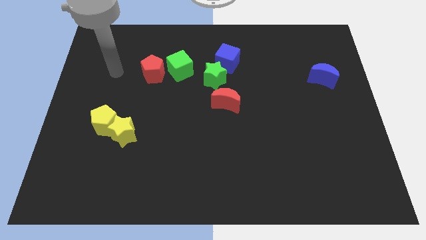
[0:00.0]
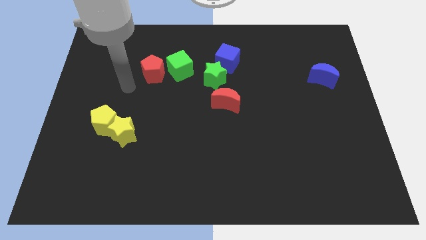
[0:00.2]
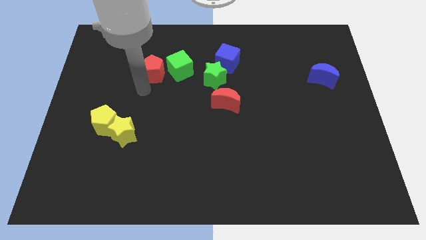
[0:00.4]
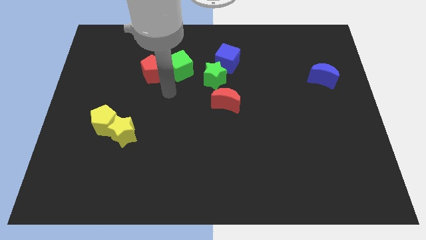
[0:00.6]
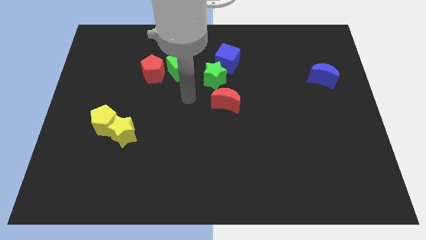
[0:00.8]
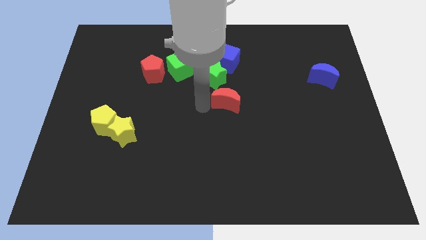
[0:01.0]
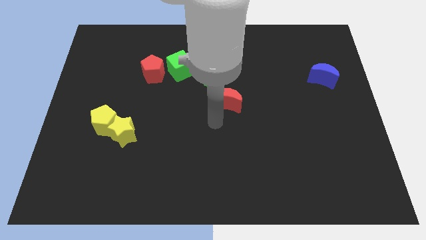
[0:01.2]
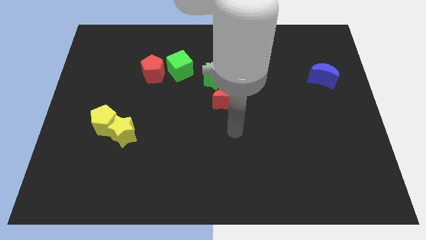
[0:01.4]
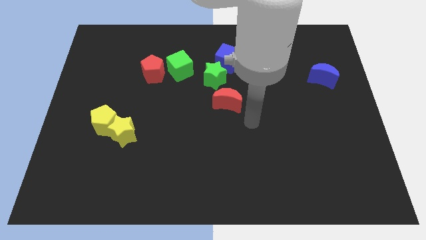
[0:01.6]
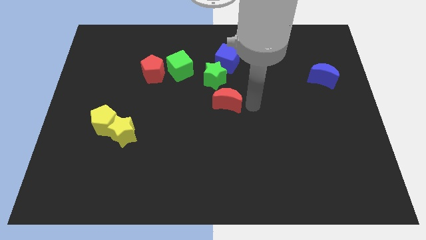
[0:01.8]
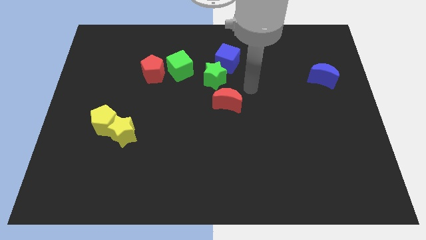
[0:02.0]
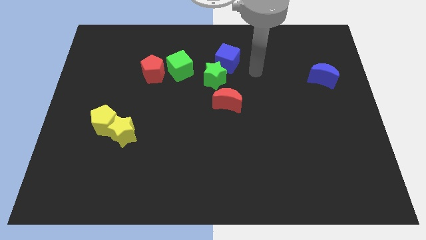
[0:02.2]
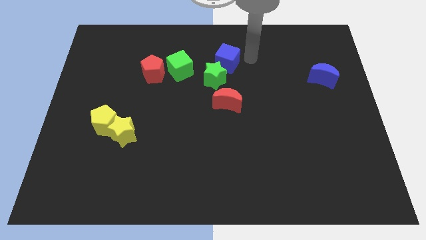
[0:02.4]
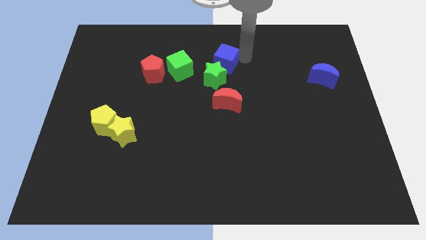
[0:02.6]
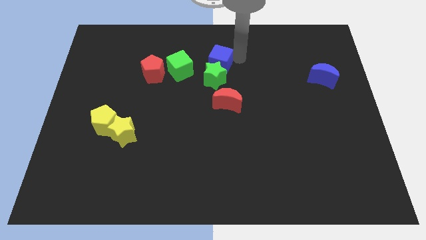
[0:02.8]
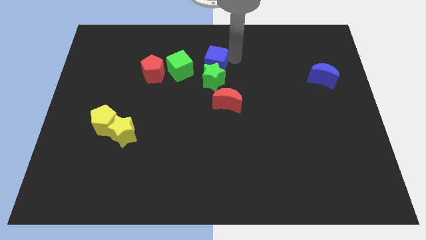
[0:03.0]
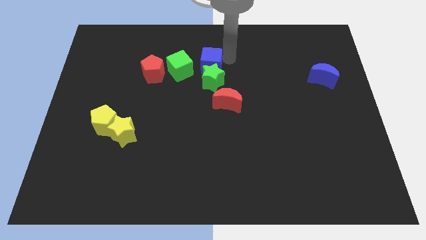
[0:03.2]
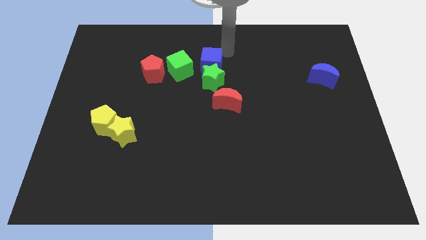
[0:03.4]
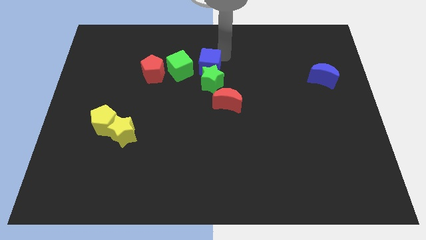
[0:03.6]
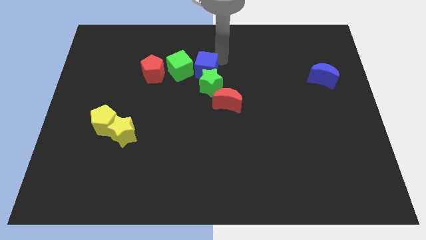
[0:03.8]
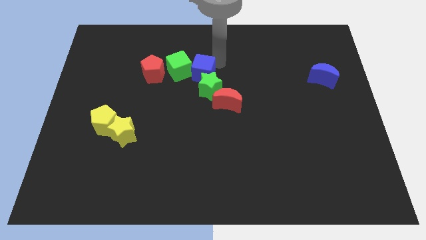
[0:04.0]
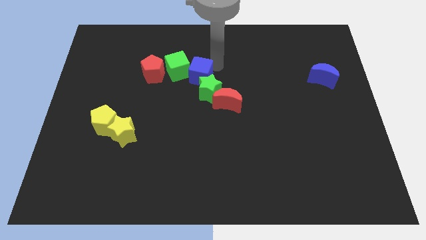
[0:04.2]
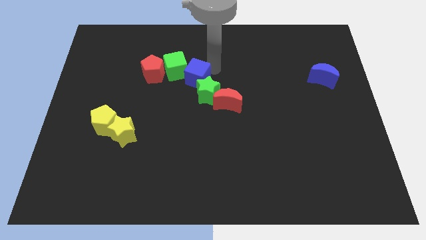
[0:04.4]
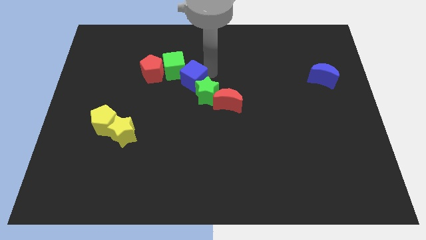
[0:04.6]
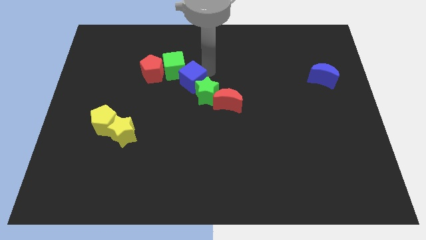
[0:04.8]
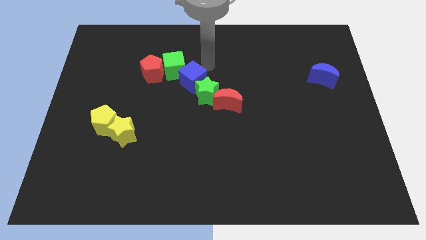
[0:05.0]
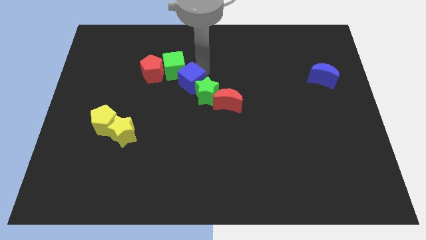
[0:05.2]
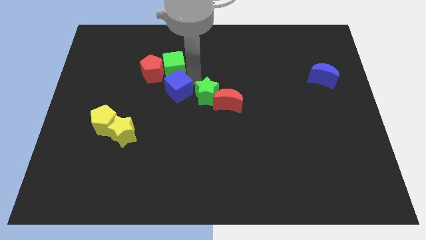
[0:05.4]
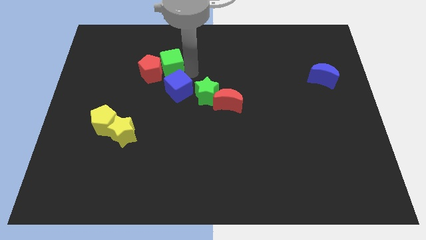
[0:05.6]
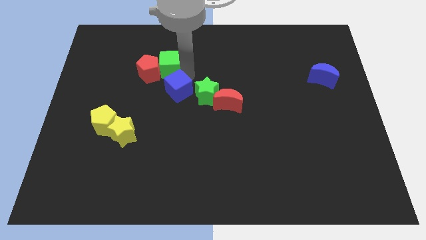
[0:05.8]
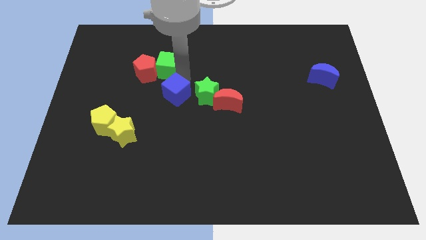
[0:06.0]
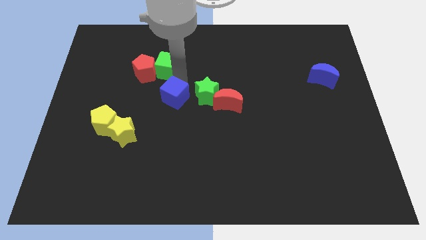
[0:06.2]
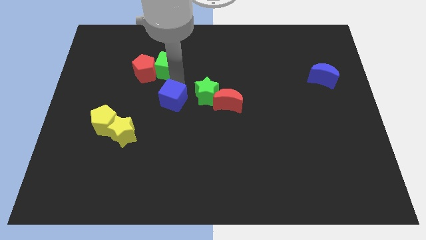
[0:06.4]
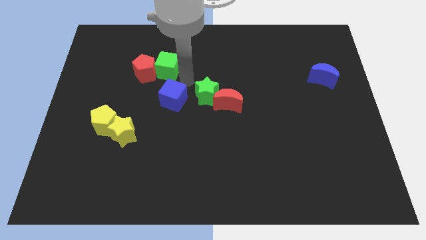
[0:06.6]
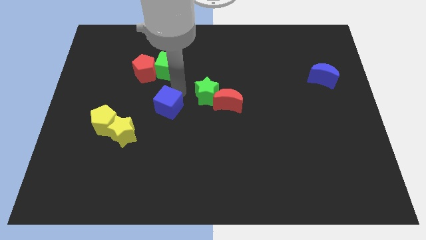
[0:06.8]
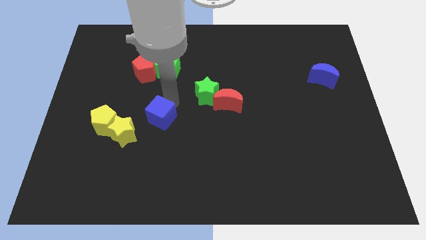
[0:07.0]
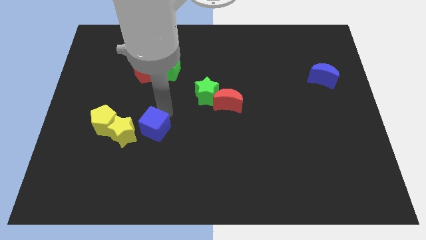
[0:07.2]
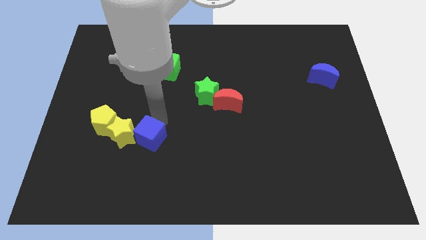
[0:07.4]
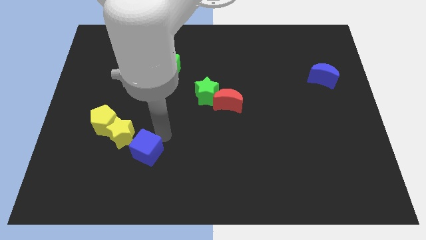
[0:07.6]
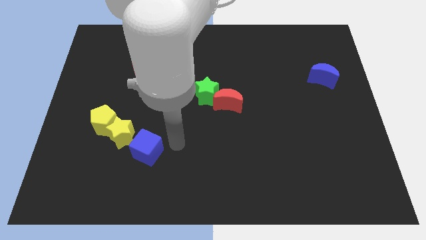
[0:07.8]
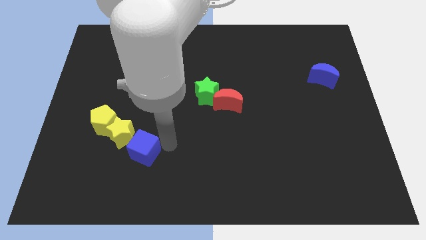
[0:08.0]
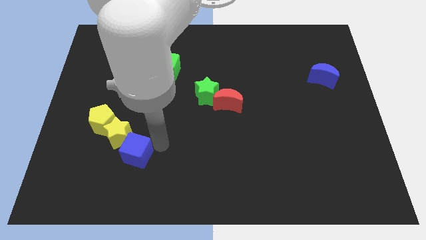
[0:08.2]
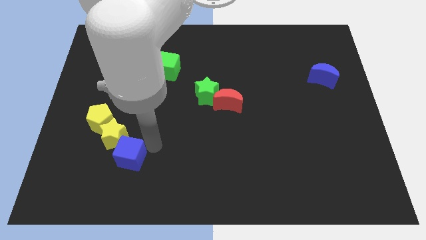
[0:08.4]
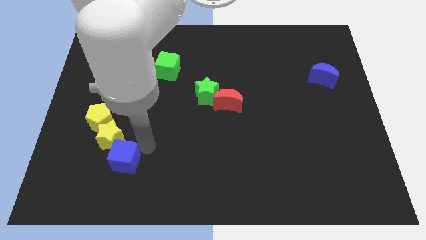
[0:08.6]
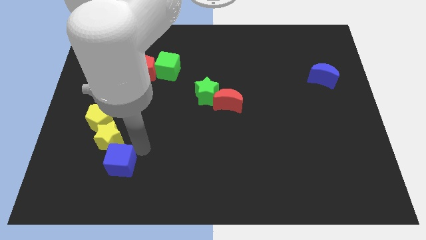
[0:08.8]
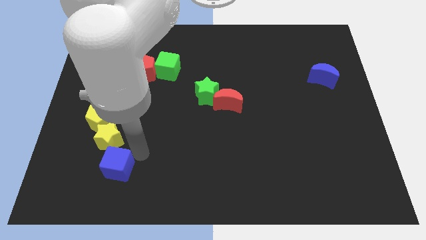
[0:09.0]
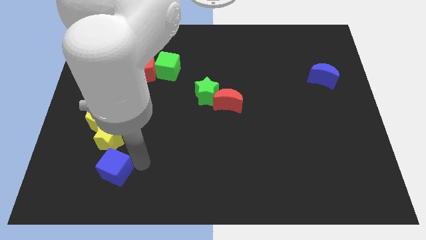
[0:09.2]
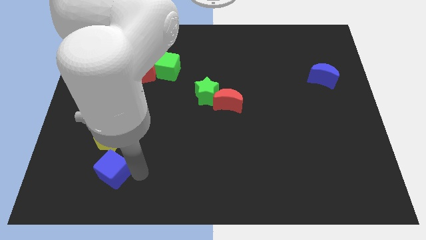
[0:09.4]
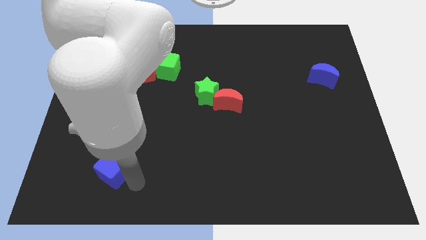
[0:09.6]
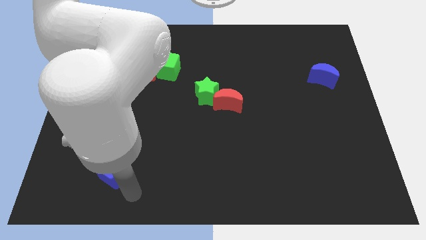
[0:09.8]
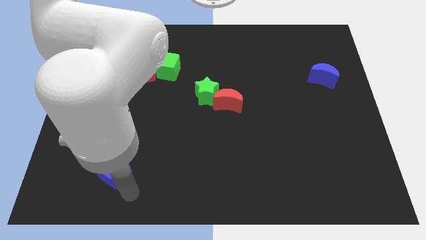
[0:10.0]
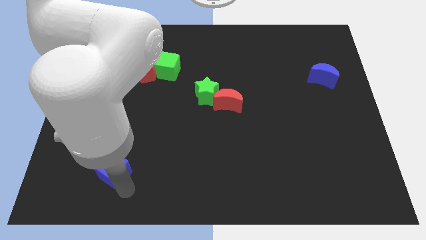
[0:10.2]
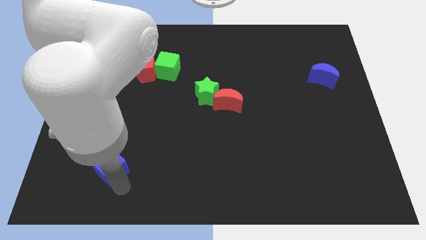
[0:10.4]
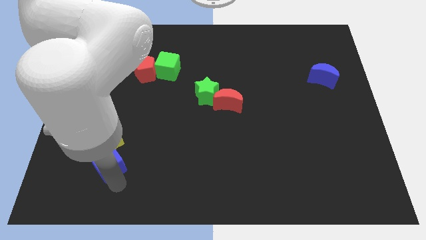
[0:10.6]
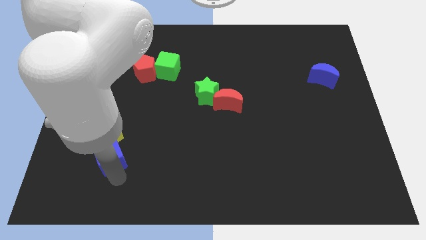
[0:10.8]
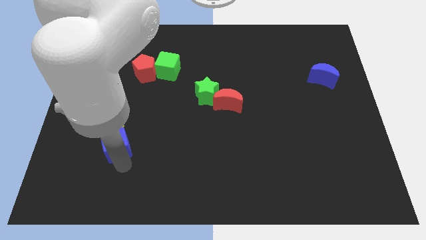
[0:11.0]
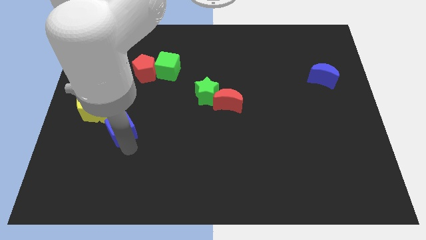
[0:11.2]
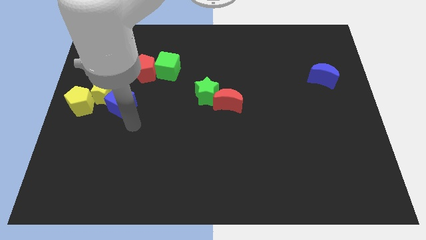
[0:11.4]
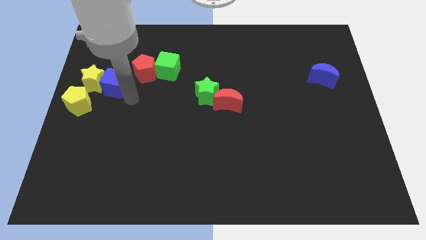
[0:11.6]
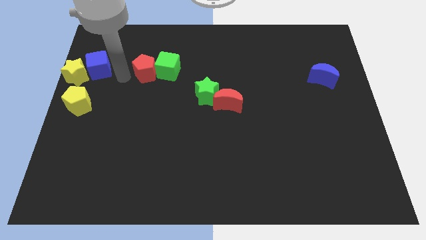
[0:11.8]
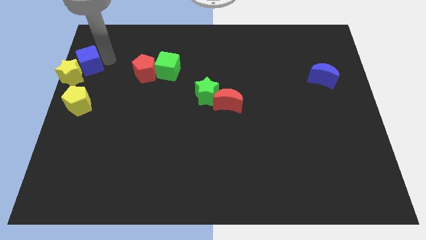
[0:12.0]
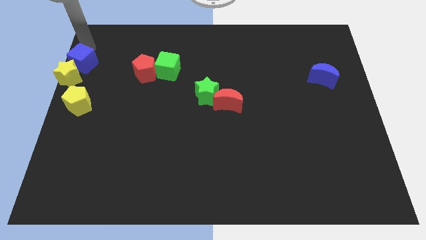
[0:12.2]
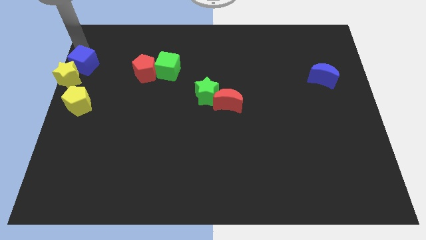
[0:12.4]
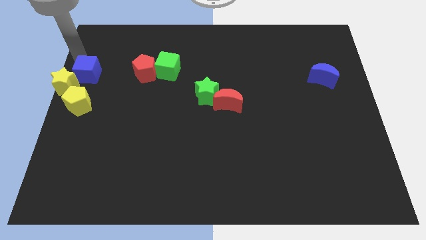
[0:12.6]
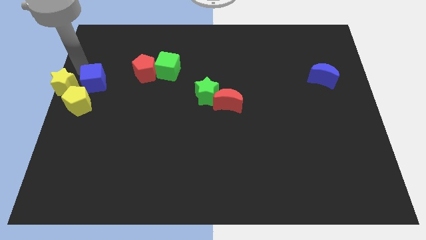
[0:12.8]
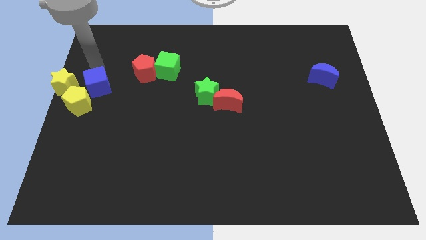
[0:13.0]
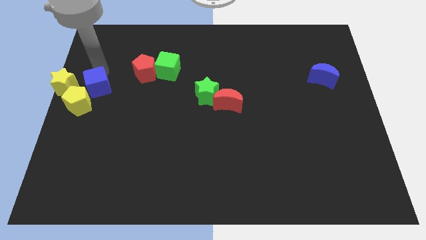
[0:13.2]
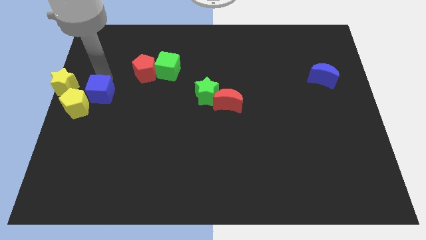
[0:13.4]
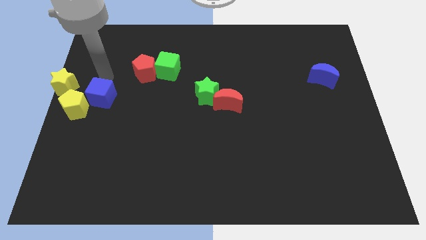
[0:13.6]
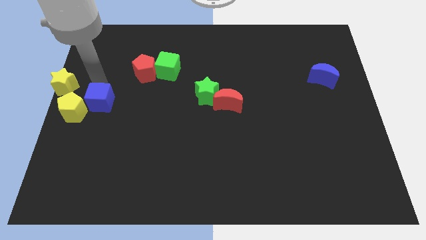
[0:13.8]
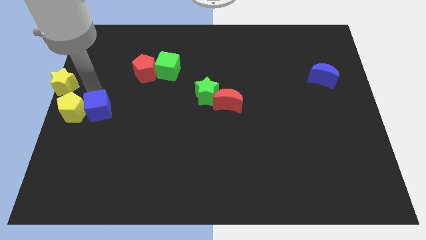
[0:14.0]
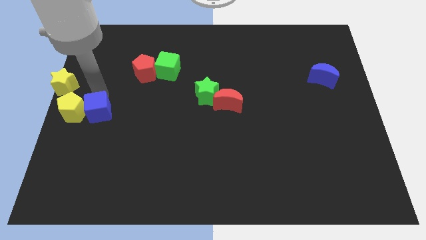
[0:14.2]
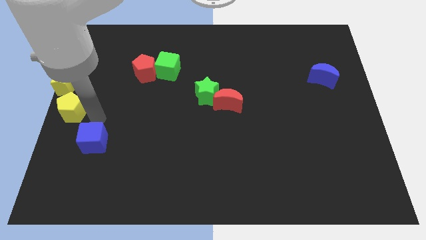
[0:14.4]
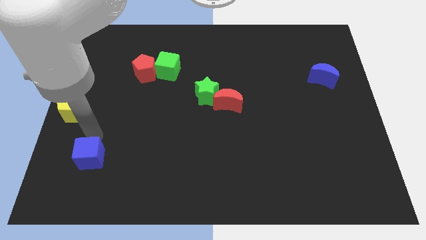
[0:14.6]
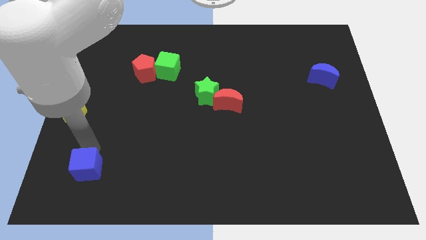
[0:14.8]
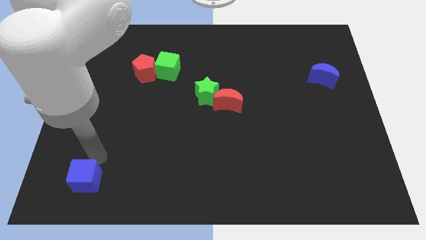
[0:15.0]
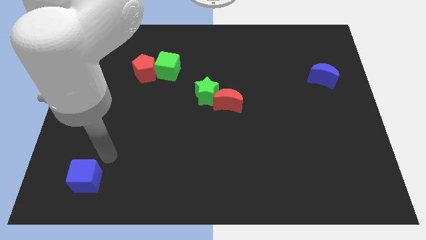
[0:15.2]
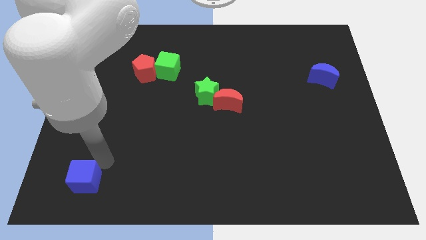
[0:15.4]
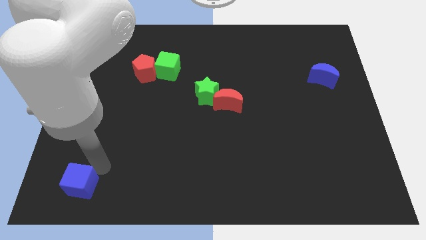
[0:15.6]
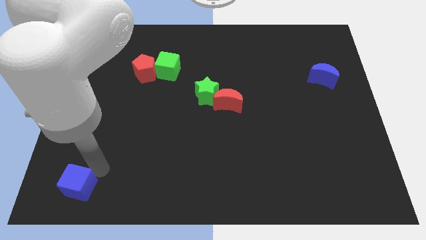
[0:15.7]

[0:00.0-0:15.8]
slide the blue cube to the lower left corner
